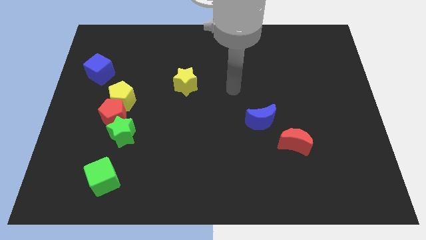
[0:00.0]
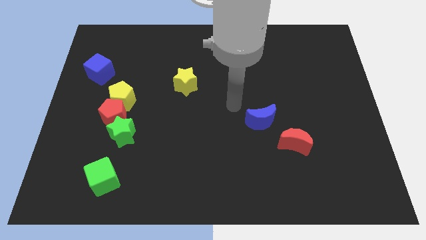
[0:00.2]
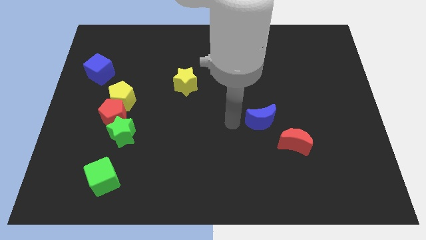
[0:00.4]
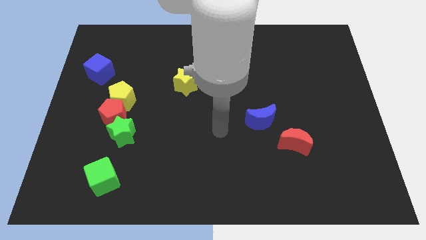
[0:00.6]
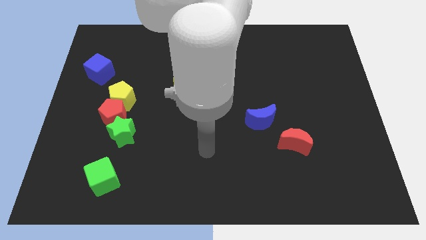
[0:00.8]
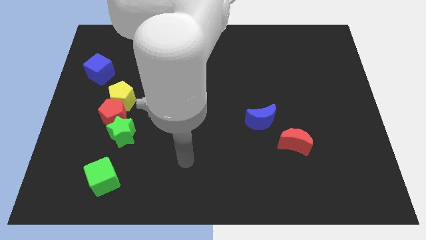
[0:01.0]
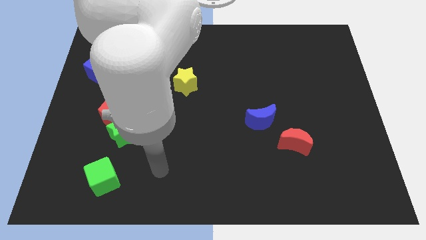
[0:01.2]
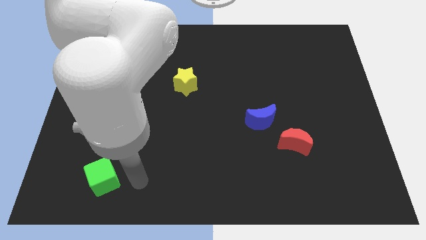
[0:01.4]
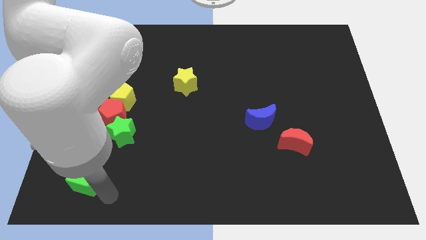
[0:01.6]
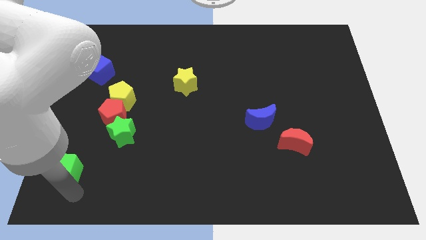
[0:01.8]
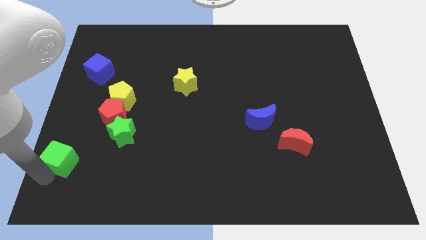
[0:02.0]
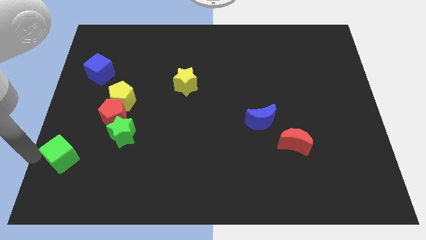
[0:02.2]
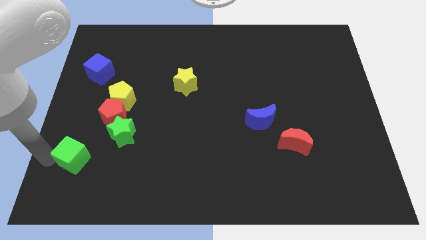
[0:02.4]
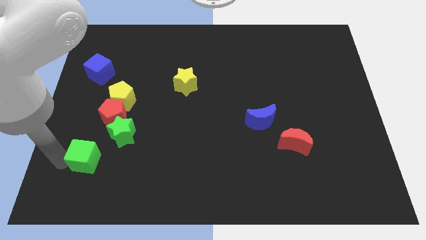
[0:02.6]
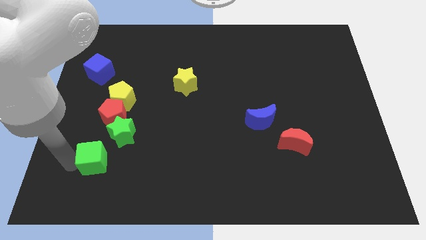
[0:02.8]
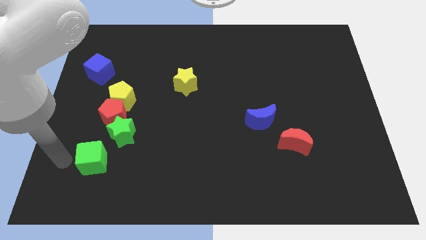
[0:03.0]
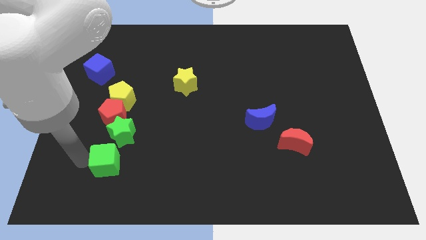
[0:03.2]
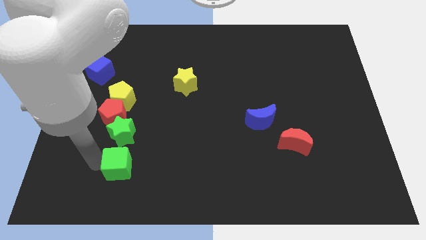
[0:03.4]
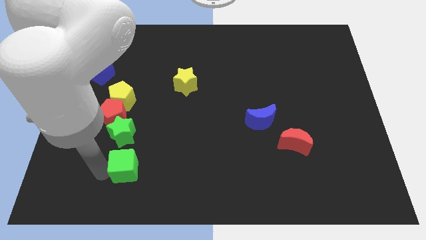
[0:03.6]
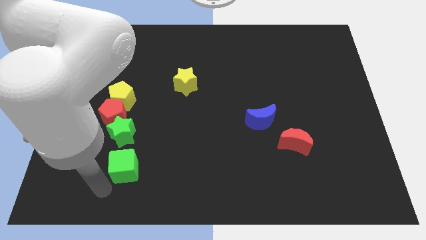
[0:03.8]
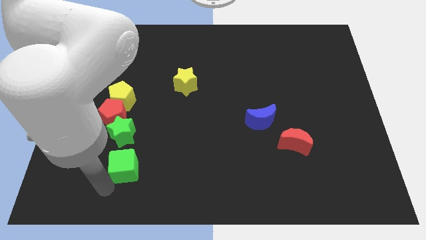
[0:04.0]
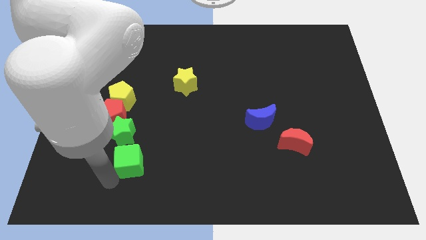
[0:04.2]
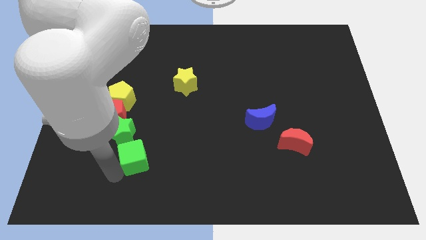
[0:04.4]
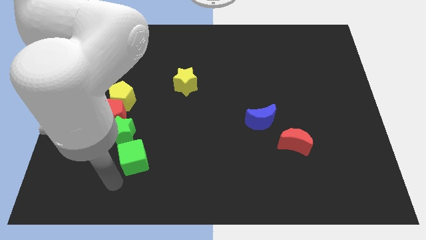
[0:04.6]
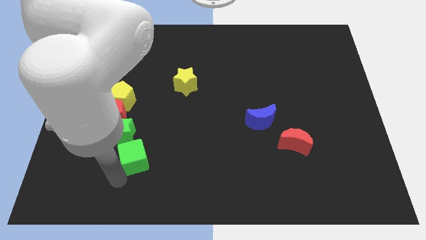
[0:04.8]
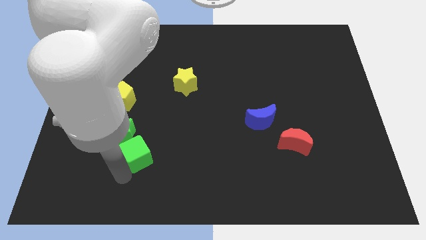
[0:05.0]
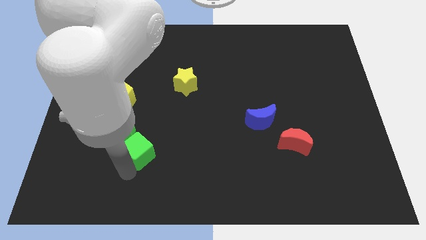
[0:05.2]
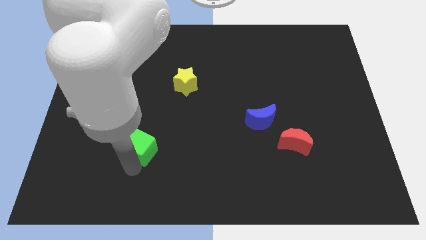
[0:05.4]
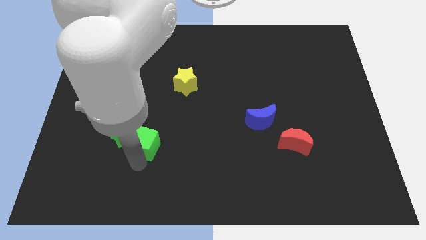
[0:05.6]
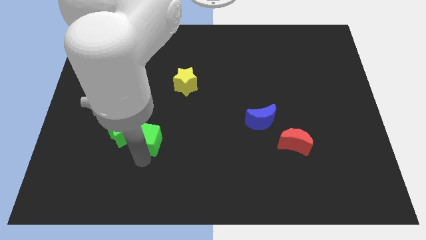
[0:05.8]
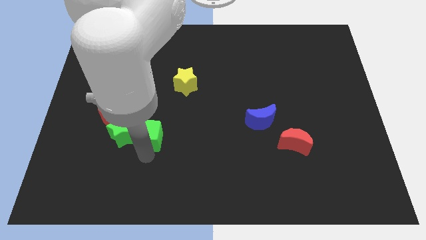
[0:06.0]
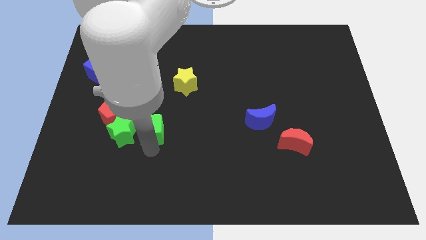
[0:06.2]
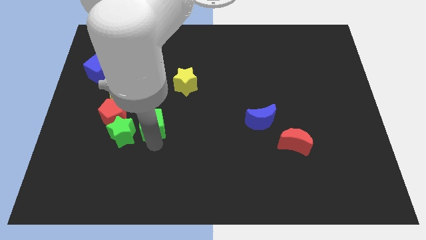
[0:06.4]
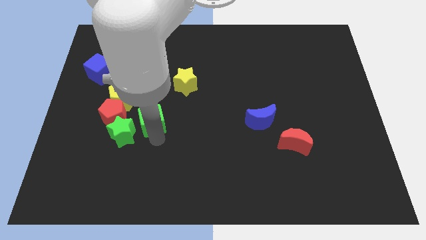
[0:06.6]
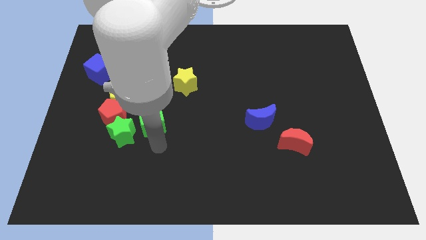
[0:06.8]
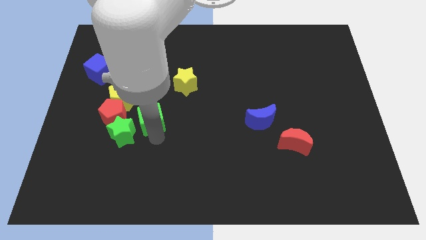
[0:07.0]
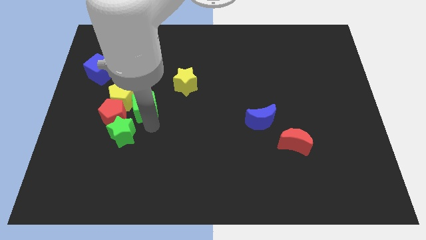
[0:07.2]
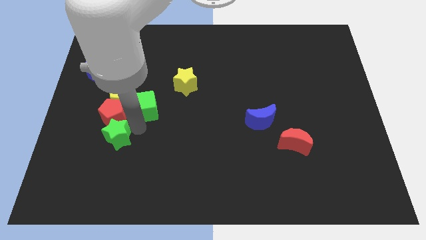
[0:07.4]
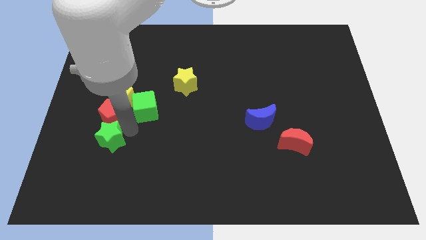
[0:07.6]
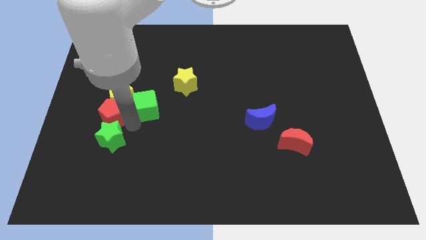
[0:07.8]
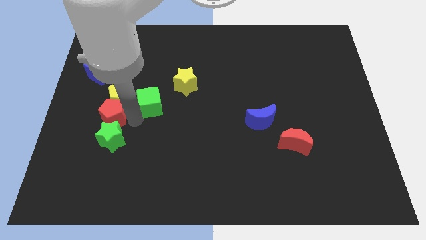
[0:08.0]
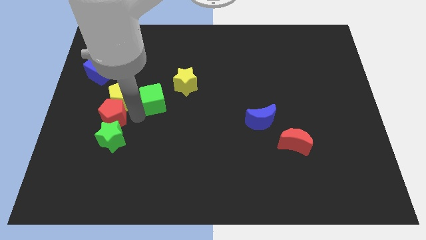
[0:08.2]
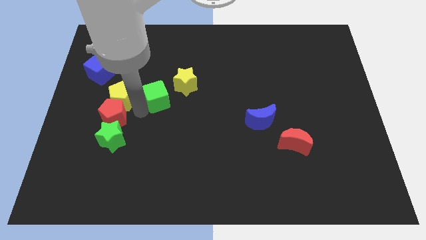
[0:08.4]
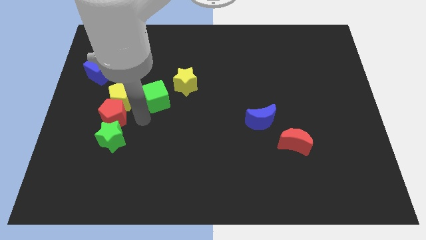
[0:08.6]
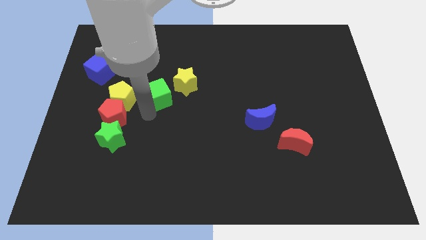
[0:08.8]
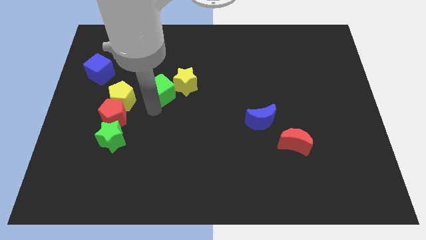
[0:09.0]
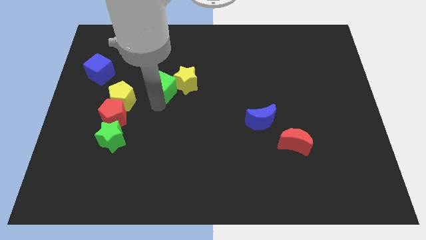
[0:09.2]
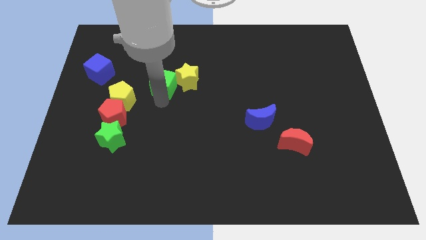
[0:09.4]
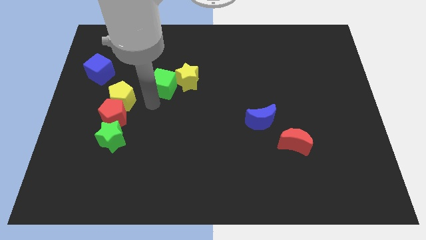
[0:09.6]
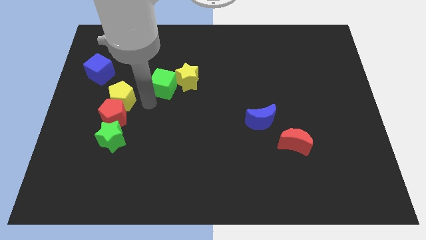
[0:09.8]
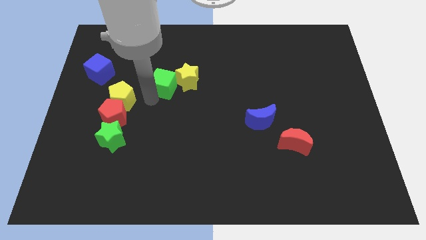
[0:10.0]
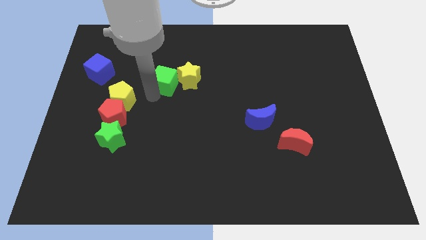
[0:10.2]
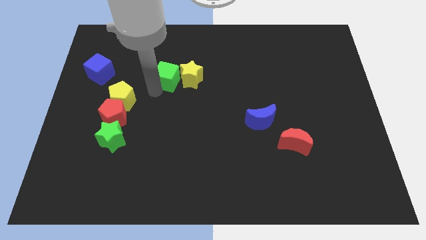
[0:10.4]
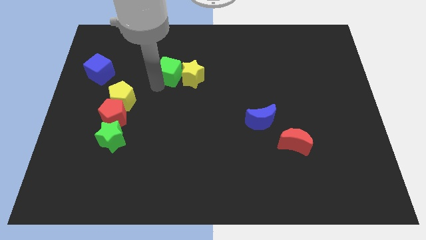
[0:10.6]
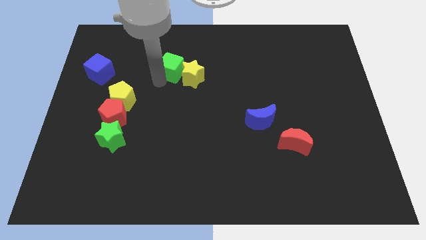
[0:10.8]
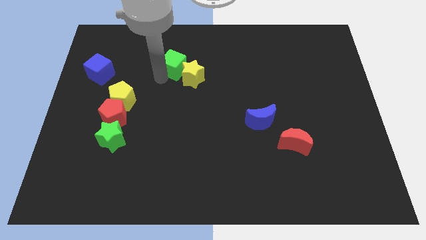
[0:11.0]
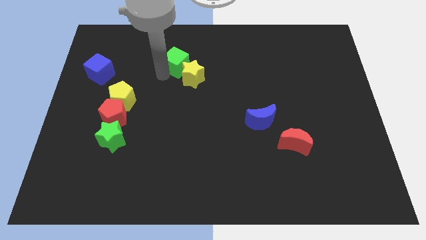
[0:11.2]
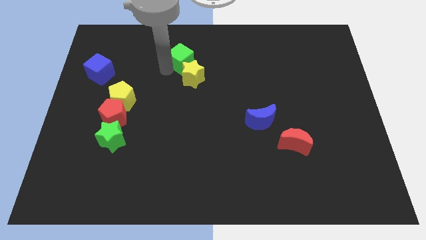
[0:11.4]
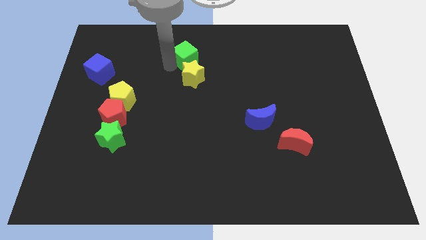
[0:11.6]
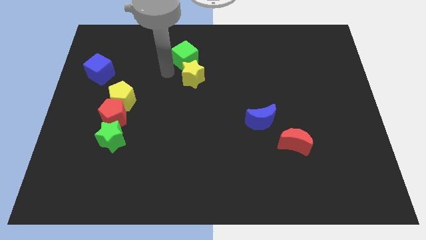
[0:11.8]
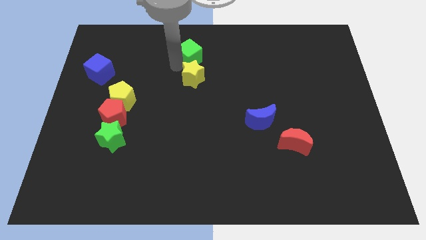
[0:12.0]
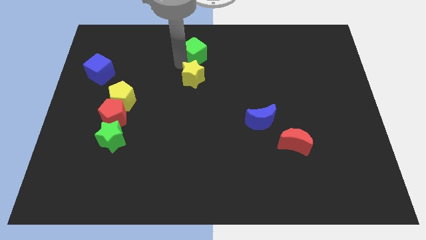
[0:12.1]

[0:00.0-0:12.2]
put the green cube to the top side
